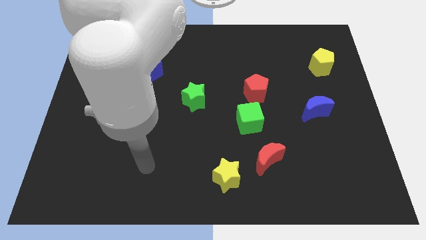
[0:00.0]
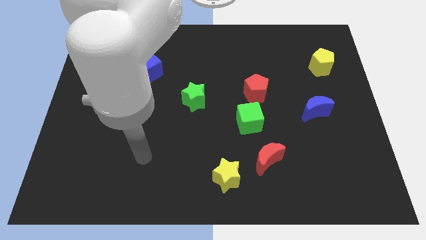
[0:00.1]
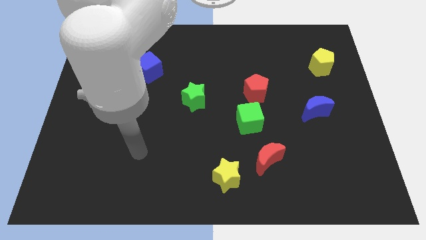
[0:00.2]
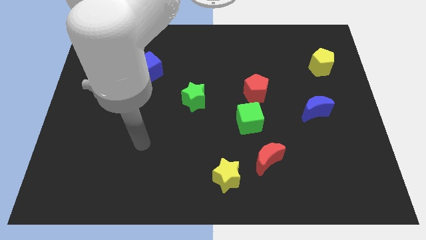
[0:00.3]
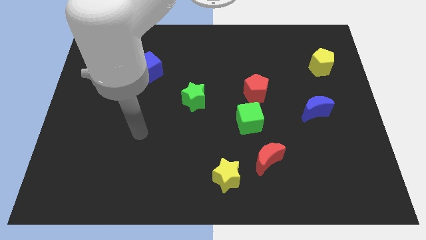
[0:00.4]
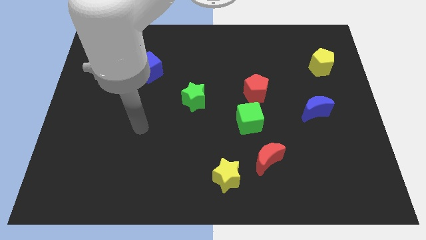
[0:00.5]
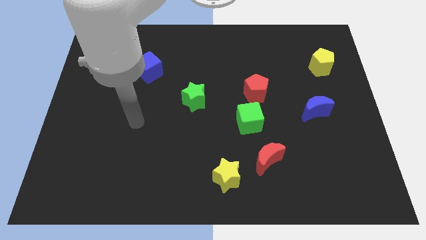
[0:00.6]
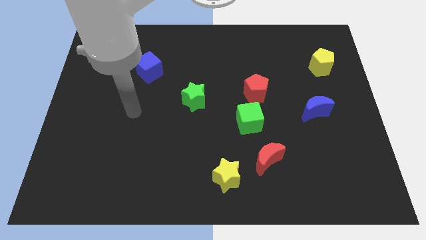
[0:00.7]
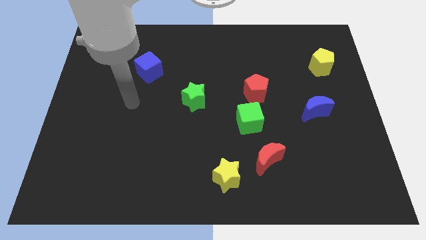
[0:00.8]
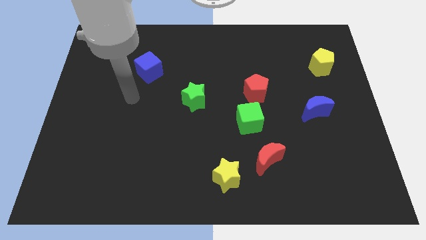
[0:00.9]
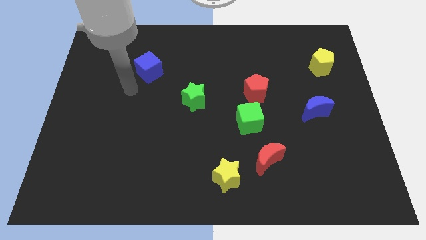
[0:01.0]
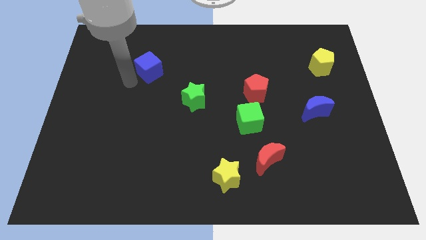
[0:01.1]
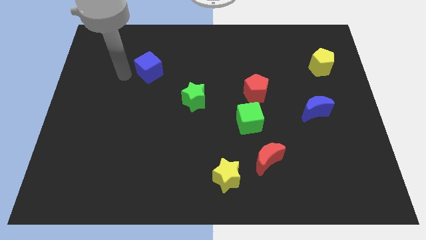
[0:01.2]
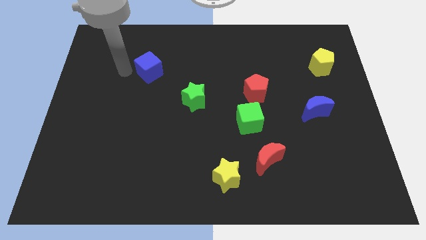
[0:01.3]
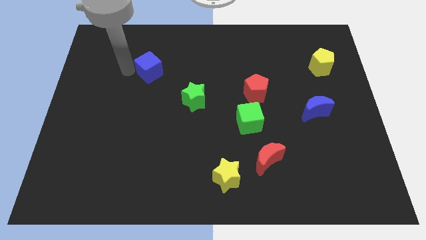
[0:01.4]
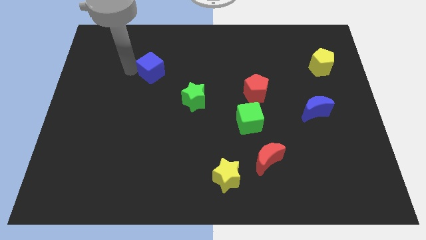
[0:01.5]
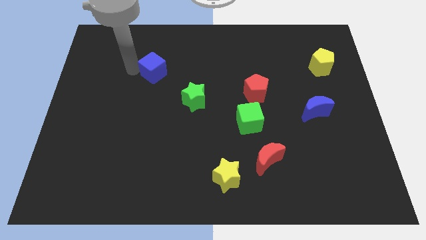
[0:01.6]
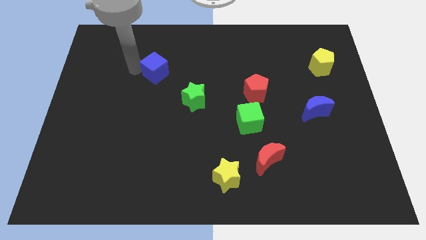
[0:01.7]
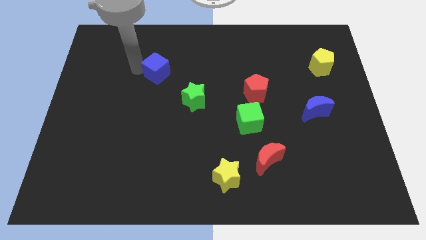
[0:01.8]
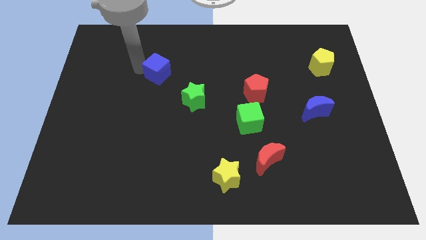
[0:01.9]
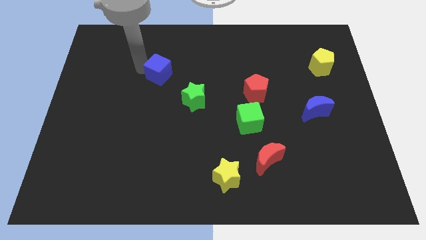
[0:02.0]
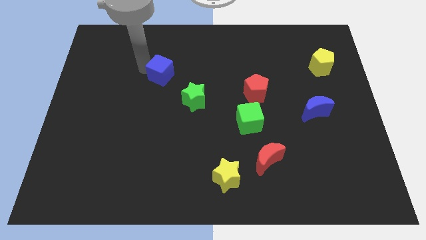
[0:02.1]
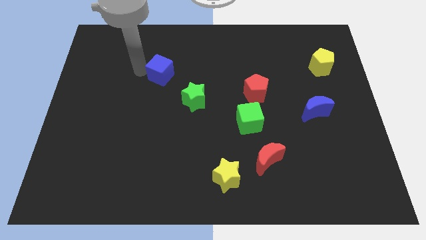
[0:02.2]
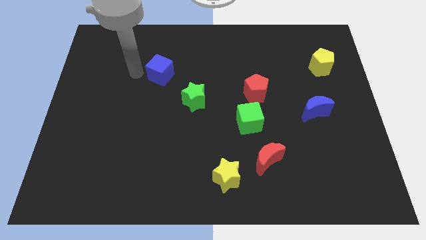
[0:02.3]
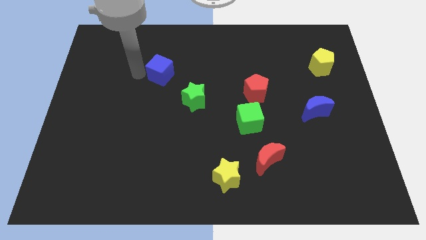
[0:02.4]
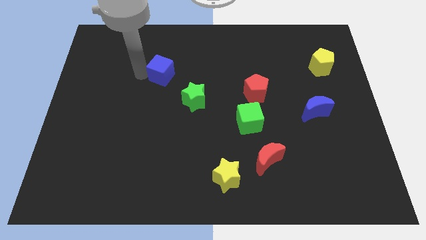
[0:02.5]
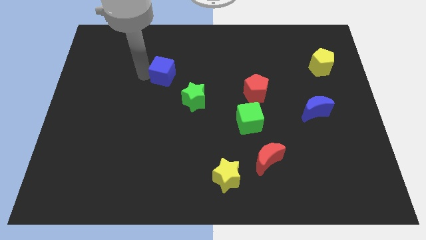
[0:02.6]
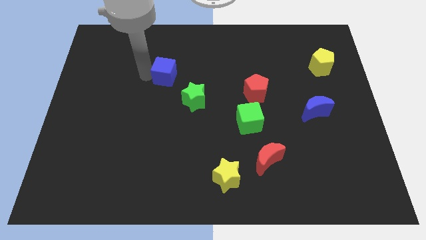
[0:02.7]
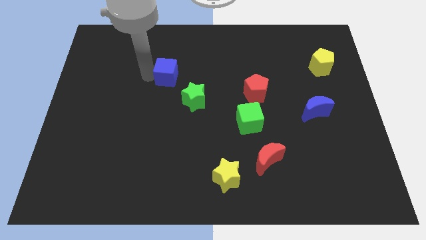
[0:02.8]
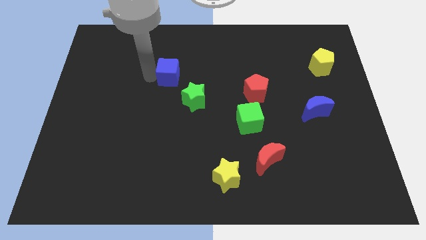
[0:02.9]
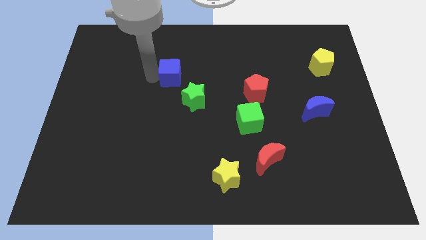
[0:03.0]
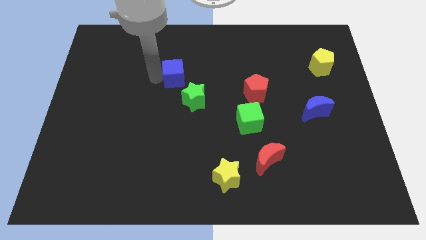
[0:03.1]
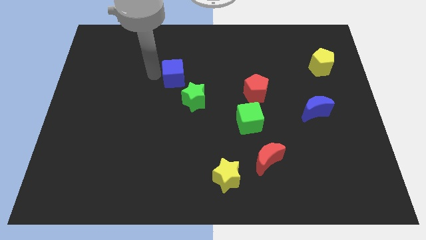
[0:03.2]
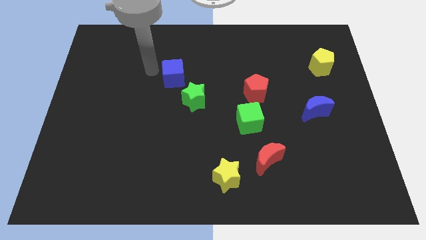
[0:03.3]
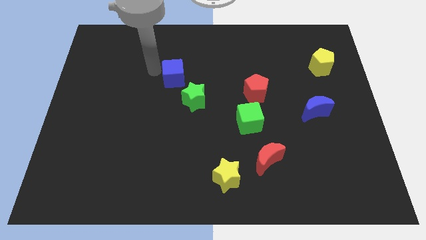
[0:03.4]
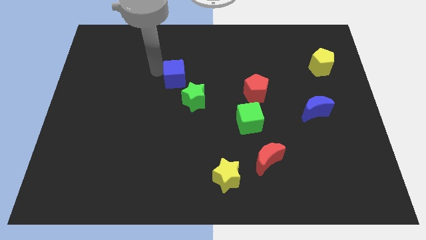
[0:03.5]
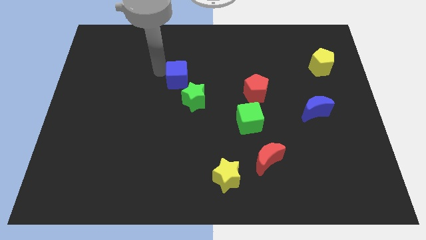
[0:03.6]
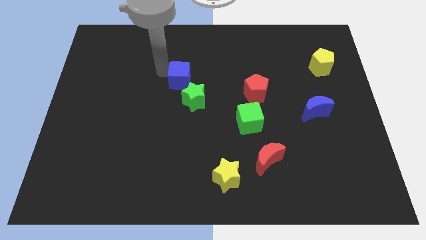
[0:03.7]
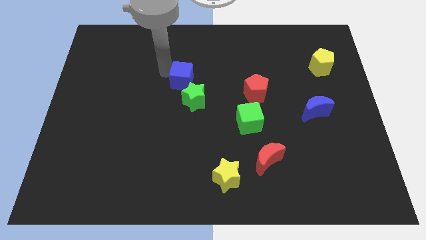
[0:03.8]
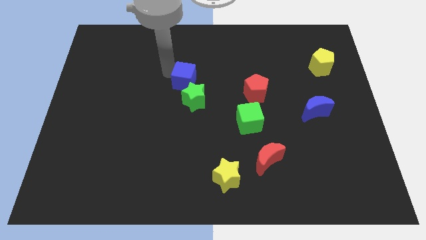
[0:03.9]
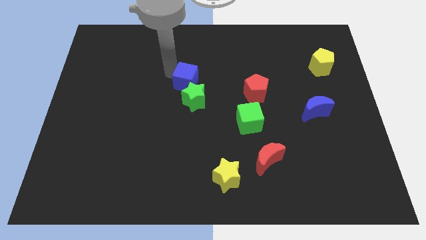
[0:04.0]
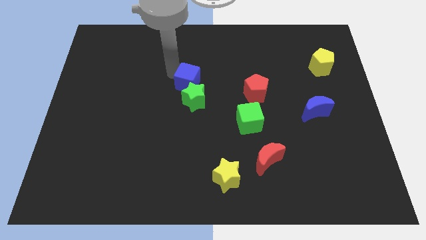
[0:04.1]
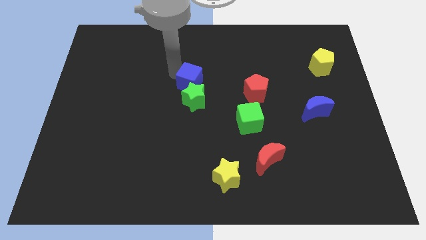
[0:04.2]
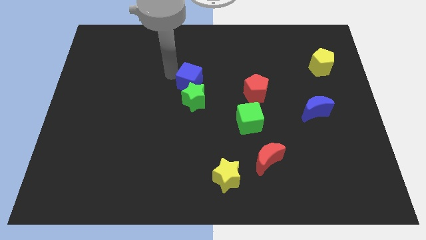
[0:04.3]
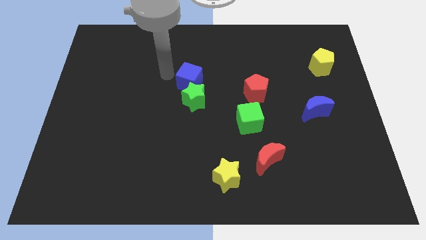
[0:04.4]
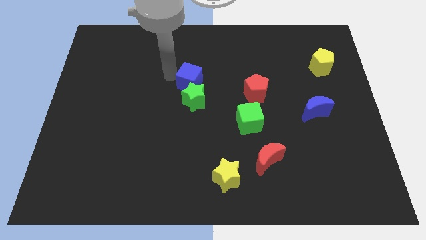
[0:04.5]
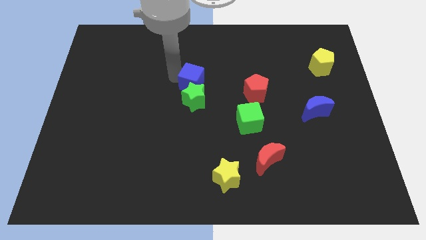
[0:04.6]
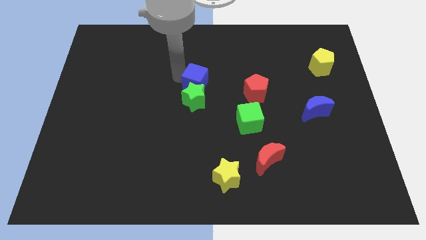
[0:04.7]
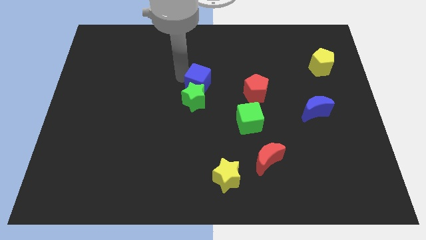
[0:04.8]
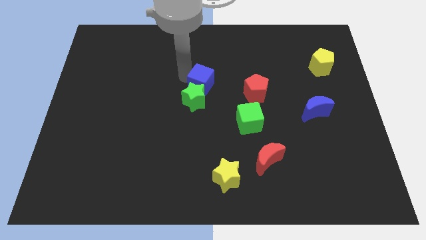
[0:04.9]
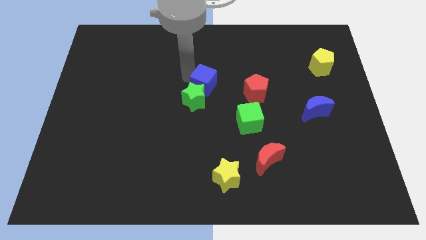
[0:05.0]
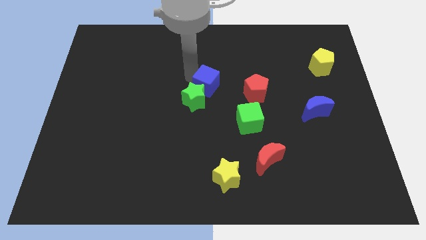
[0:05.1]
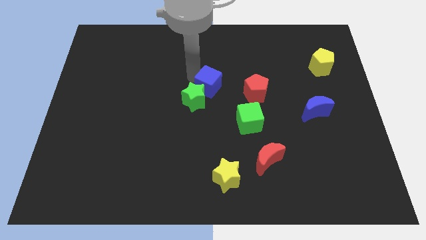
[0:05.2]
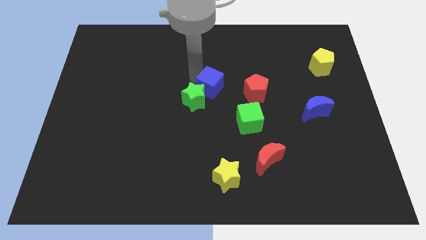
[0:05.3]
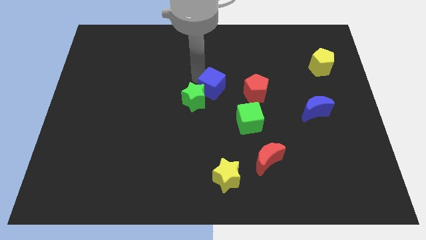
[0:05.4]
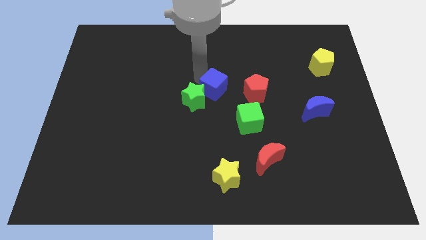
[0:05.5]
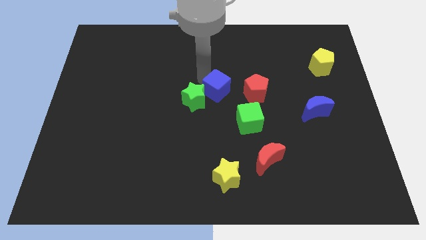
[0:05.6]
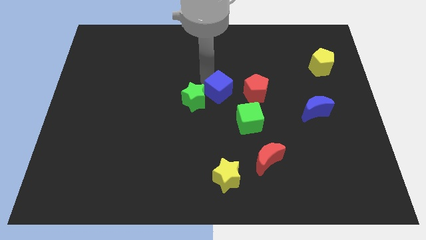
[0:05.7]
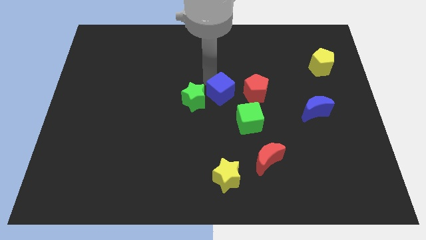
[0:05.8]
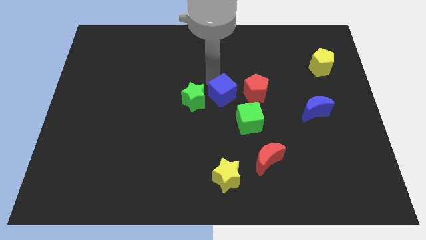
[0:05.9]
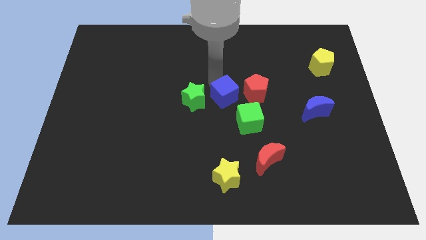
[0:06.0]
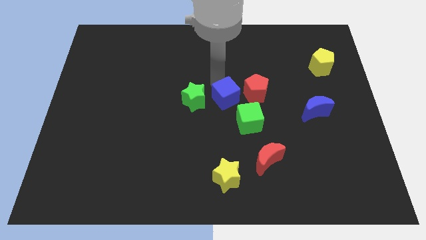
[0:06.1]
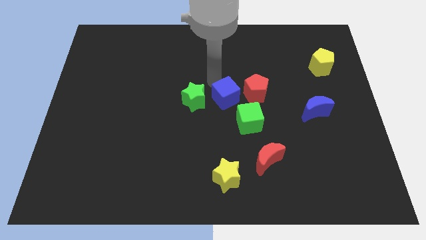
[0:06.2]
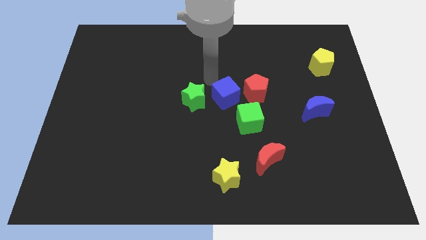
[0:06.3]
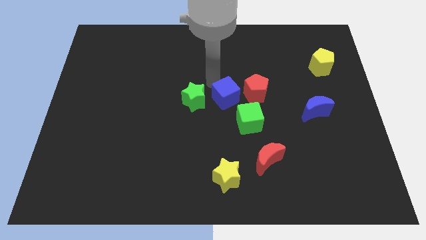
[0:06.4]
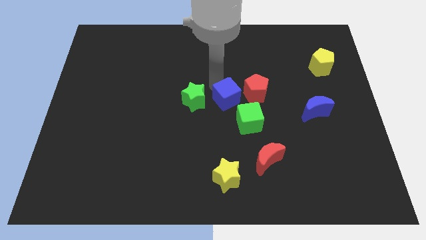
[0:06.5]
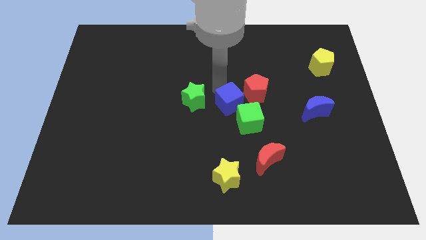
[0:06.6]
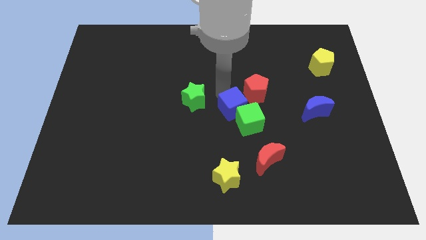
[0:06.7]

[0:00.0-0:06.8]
move the blue cube towards the green cube
